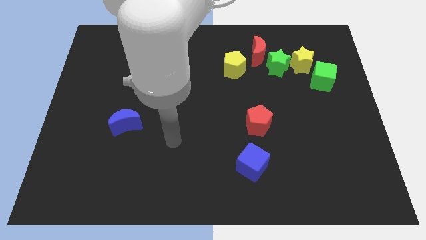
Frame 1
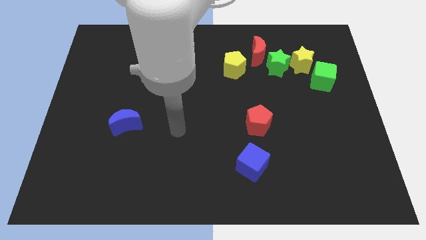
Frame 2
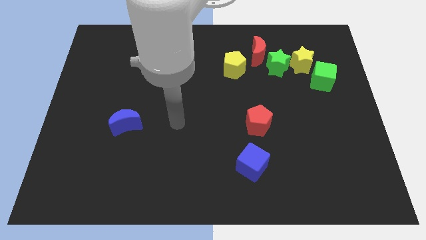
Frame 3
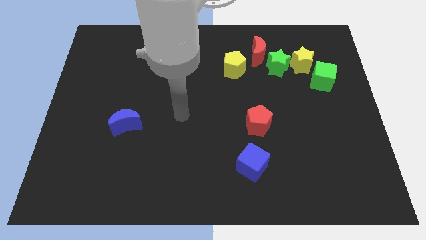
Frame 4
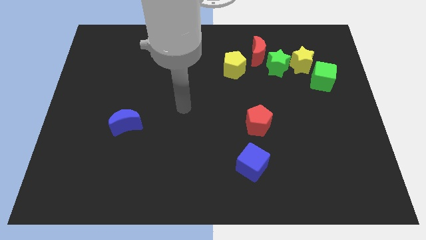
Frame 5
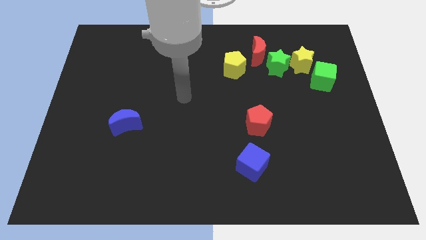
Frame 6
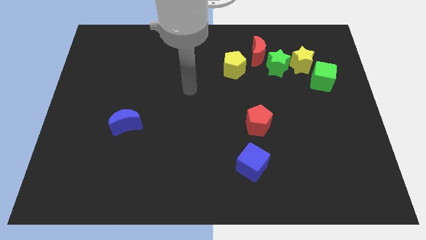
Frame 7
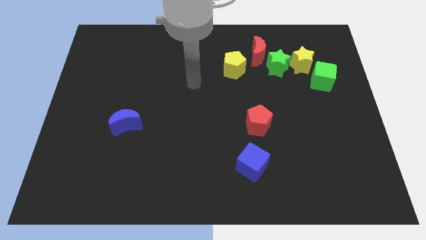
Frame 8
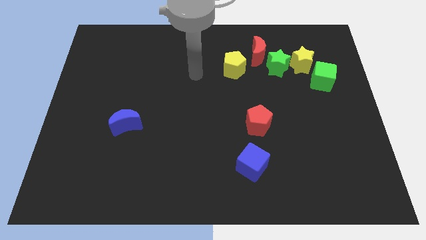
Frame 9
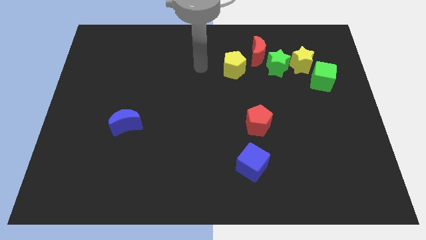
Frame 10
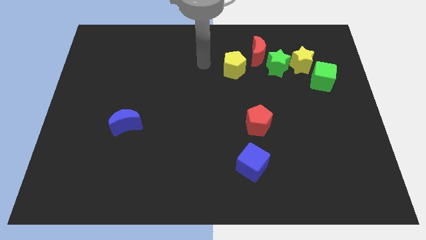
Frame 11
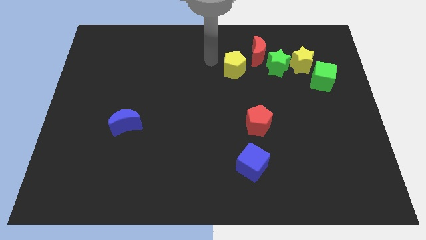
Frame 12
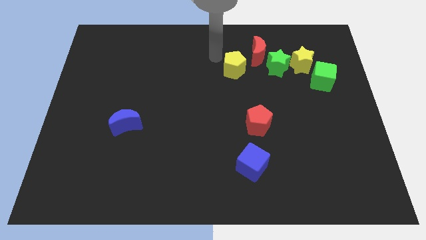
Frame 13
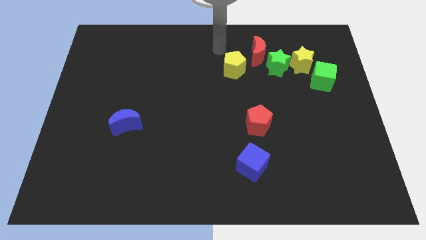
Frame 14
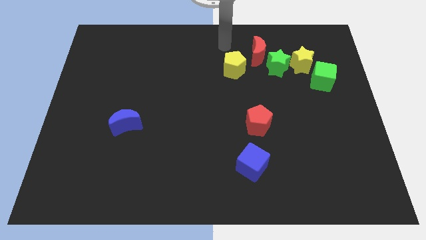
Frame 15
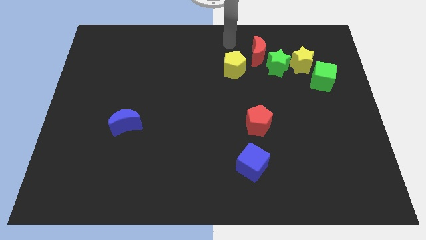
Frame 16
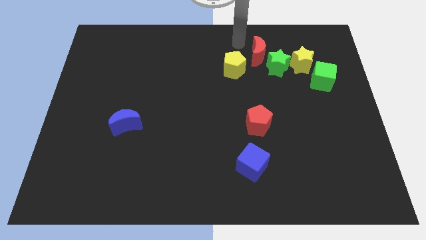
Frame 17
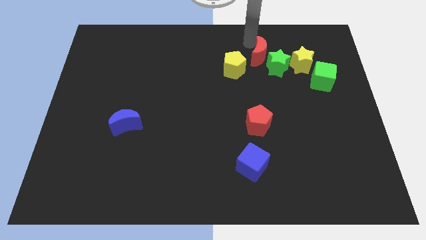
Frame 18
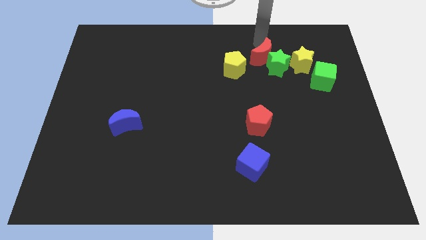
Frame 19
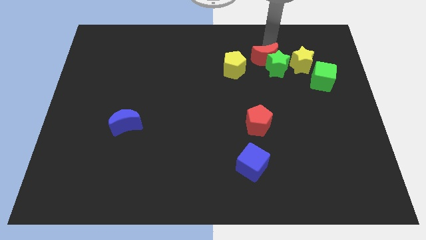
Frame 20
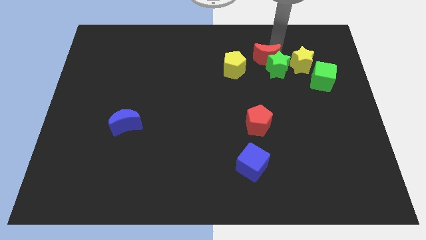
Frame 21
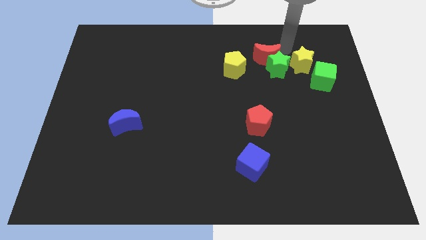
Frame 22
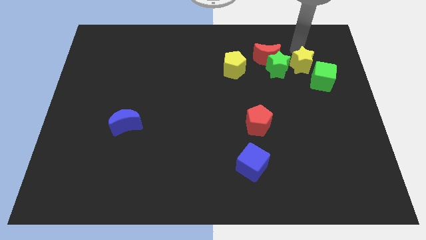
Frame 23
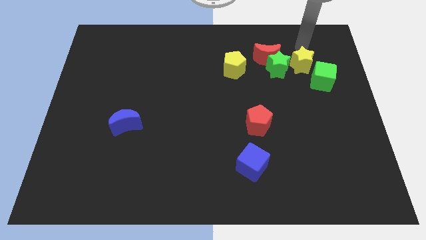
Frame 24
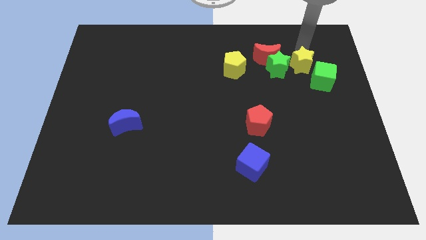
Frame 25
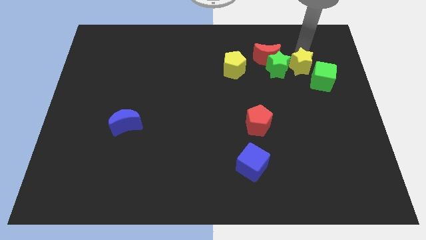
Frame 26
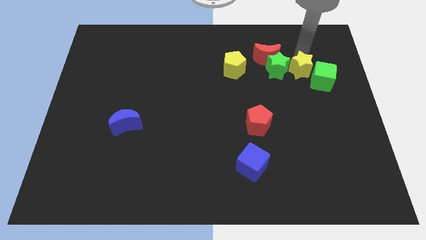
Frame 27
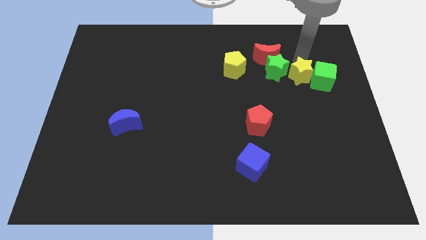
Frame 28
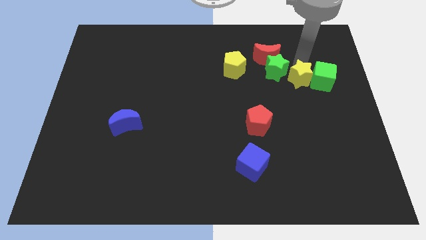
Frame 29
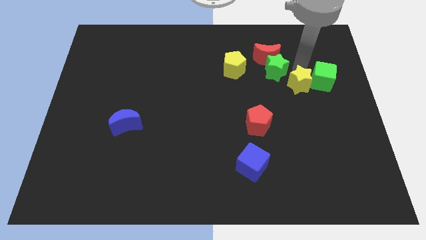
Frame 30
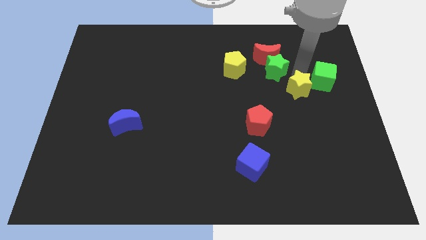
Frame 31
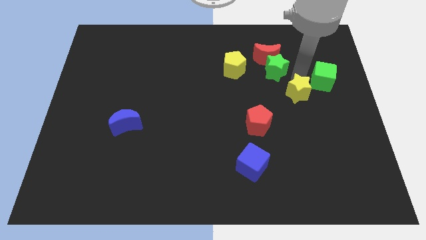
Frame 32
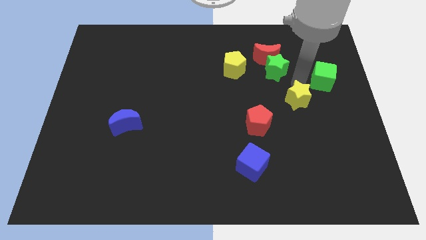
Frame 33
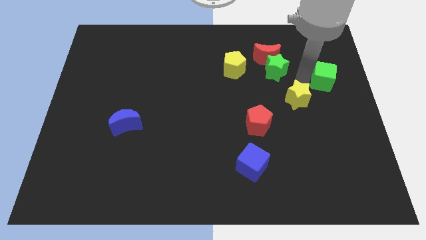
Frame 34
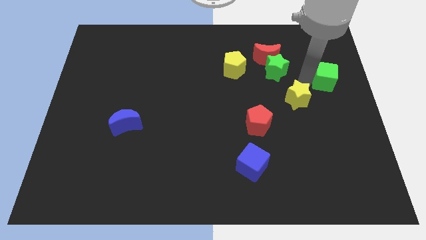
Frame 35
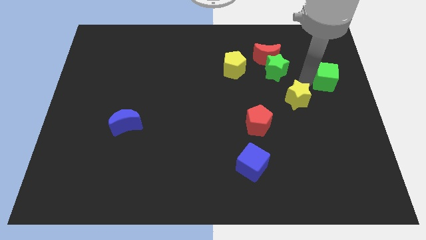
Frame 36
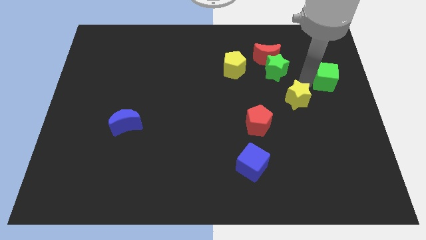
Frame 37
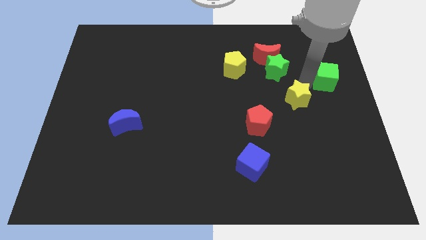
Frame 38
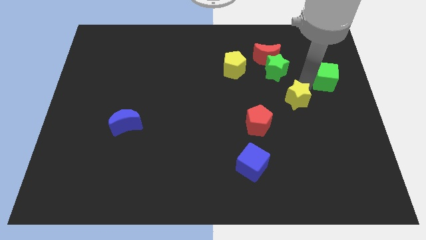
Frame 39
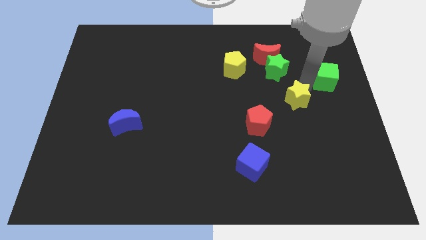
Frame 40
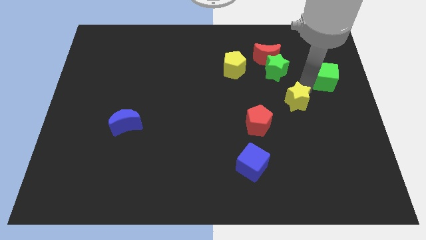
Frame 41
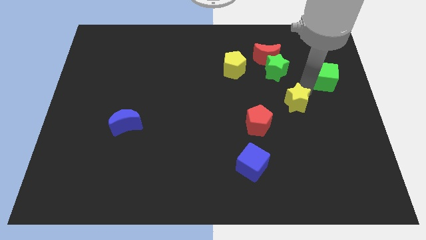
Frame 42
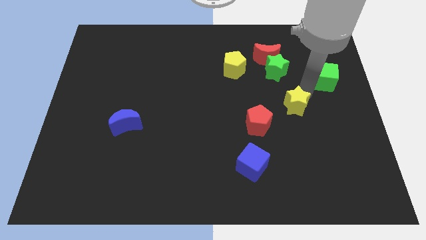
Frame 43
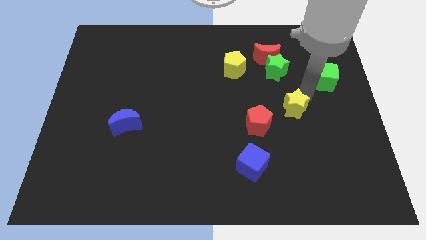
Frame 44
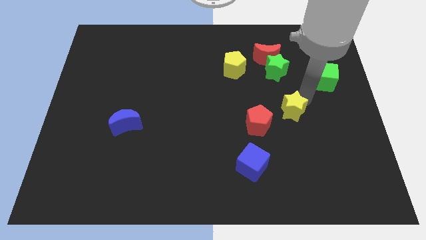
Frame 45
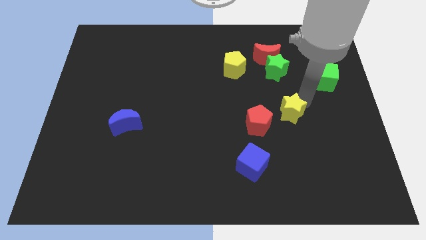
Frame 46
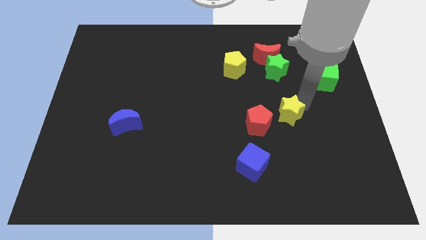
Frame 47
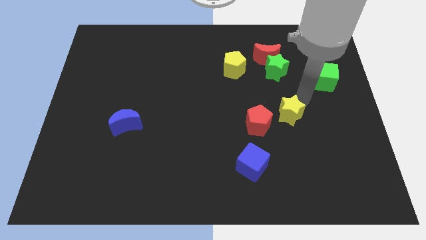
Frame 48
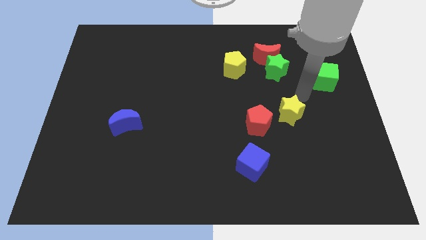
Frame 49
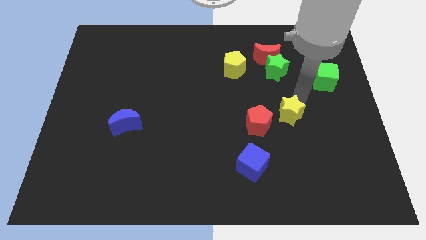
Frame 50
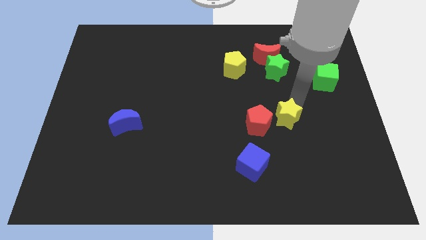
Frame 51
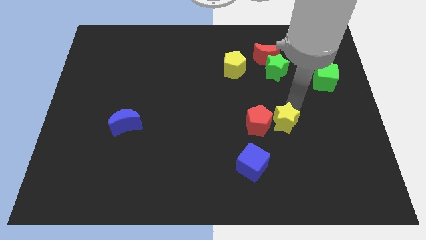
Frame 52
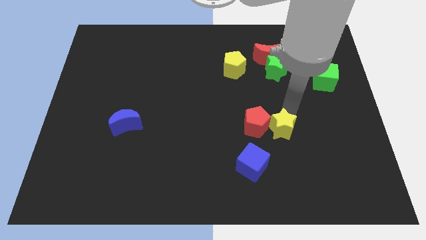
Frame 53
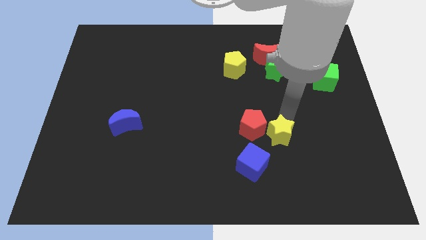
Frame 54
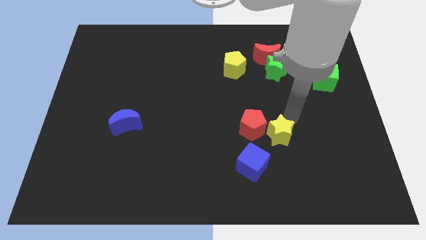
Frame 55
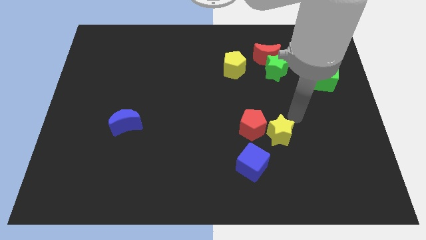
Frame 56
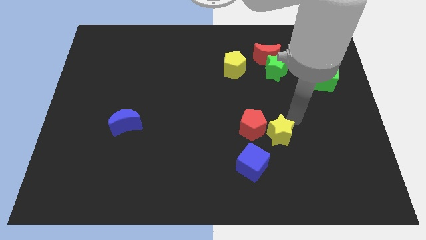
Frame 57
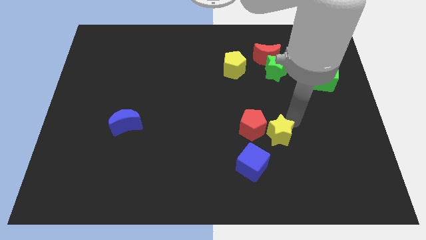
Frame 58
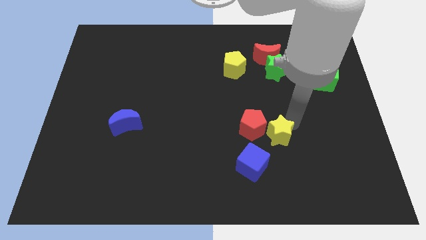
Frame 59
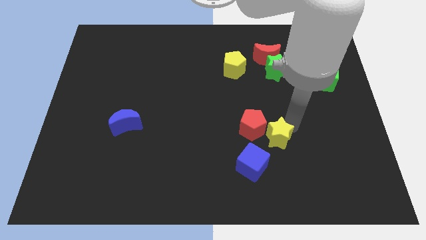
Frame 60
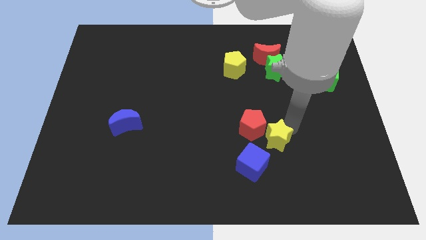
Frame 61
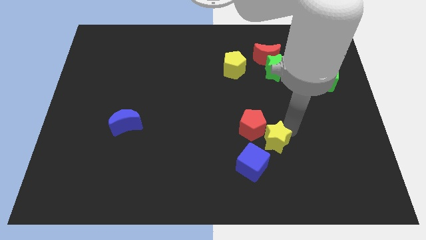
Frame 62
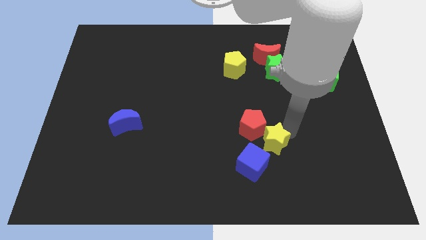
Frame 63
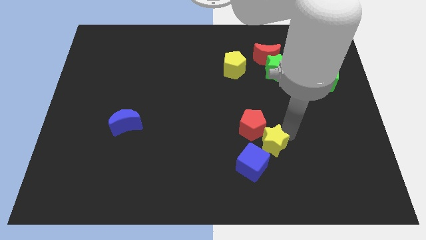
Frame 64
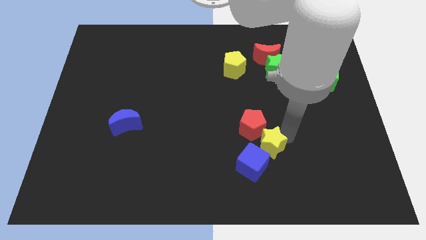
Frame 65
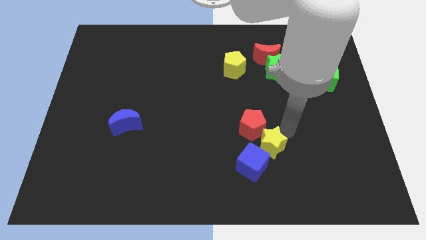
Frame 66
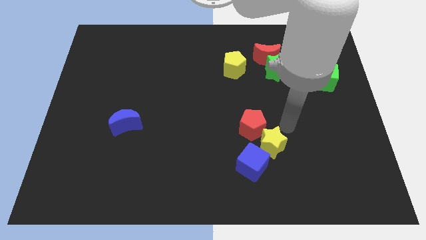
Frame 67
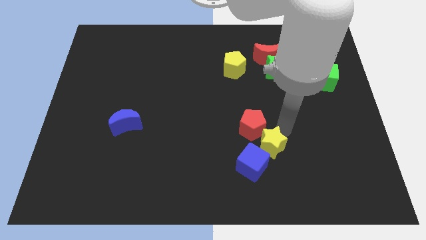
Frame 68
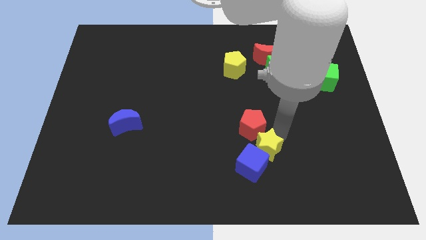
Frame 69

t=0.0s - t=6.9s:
put the yellow star towards the blue cube

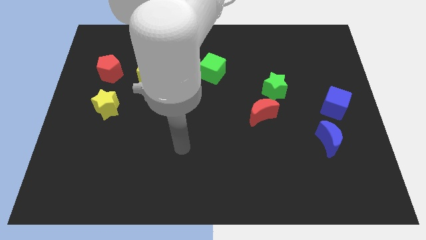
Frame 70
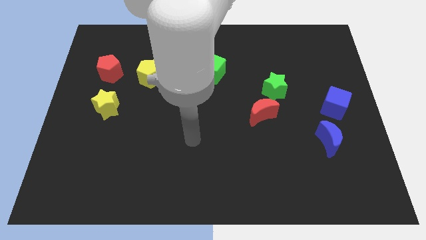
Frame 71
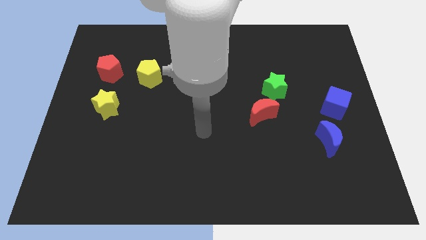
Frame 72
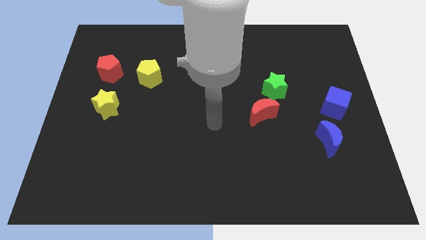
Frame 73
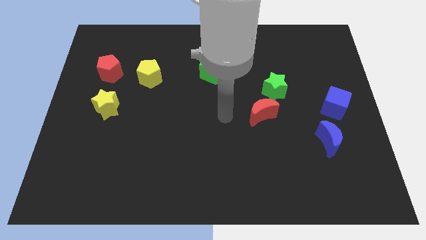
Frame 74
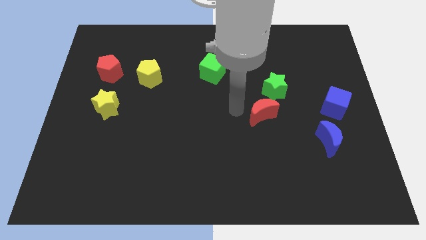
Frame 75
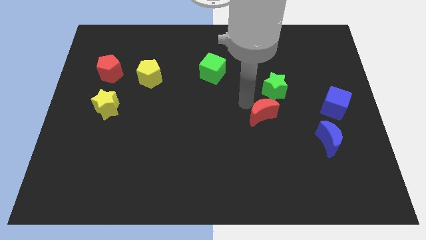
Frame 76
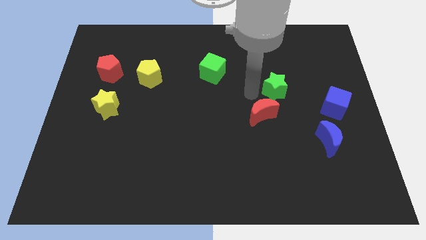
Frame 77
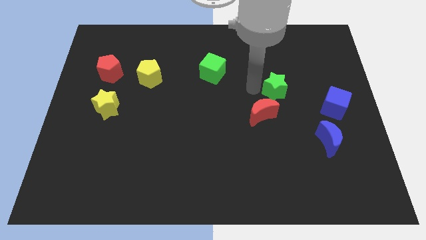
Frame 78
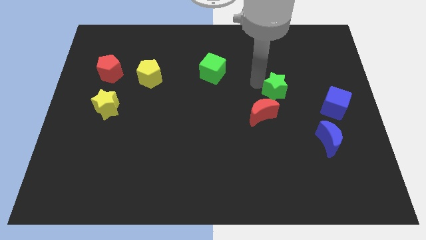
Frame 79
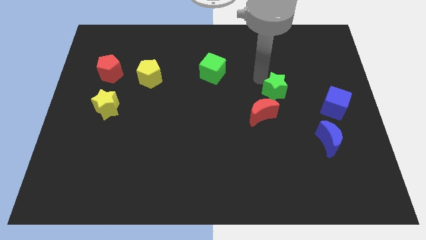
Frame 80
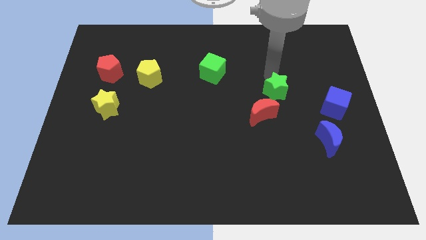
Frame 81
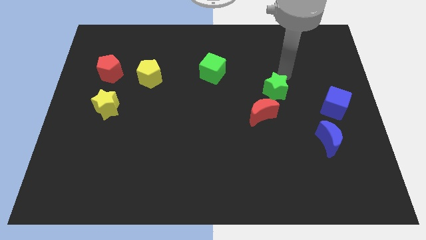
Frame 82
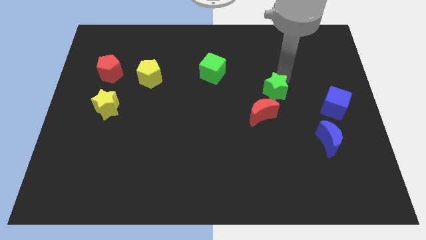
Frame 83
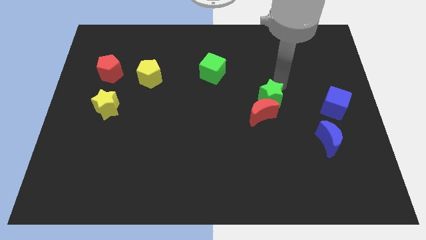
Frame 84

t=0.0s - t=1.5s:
slide the green star close to the red moon
